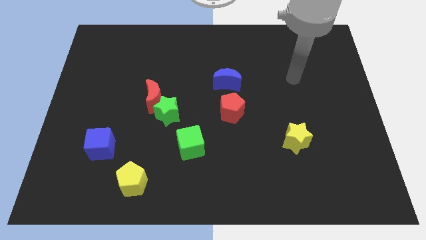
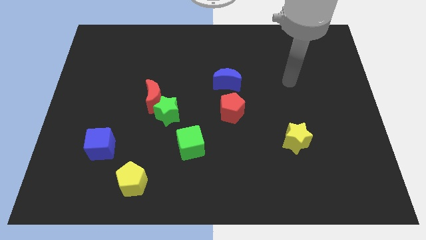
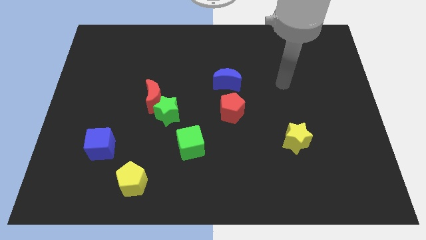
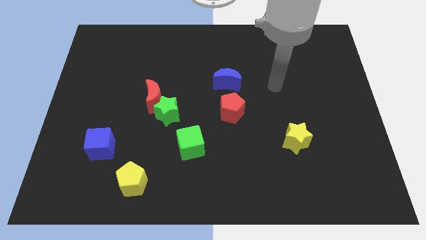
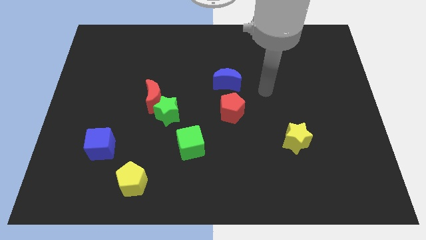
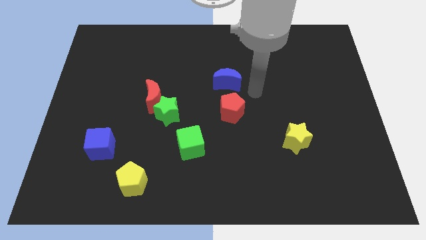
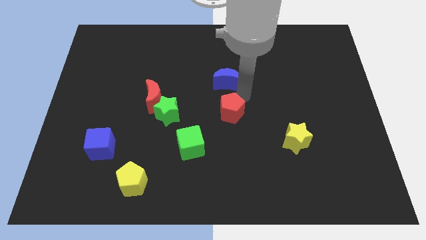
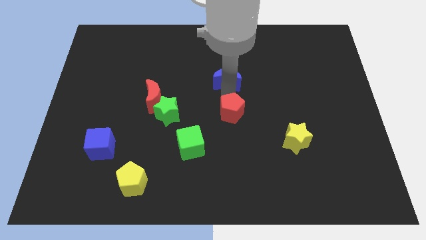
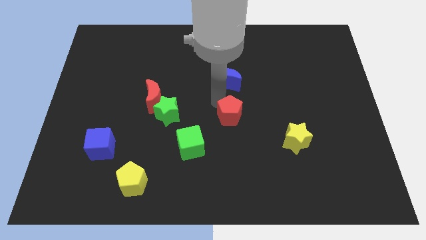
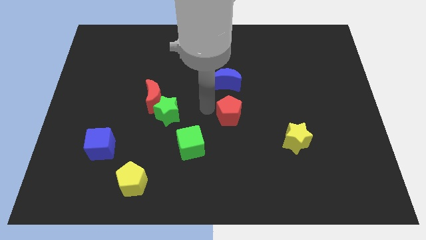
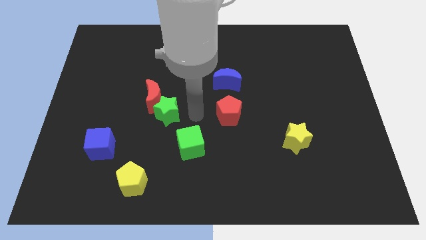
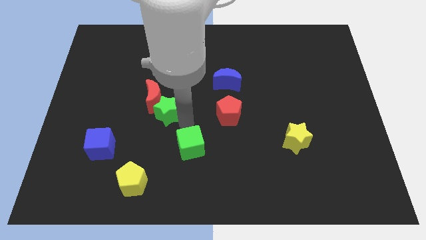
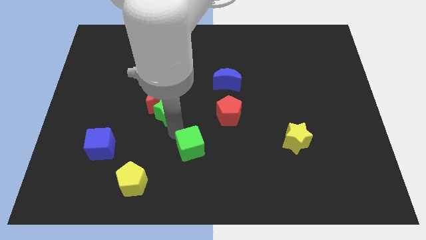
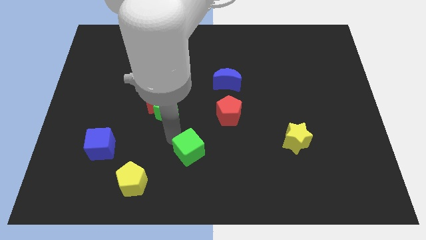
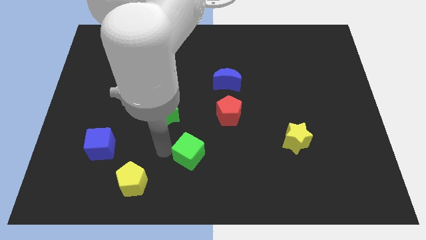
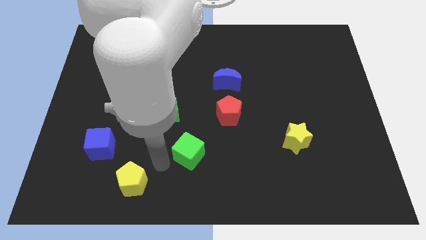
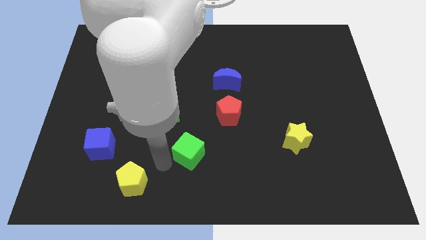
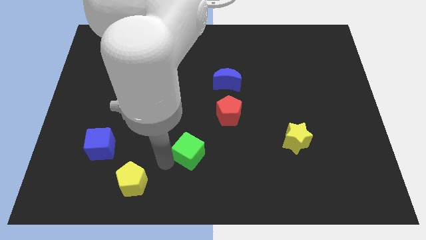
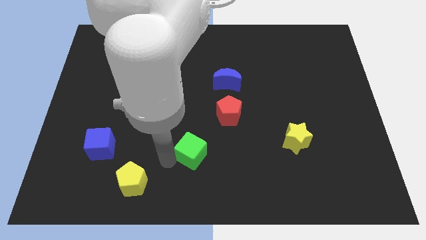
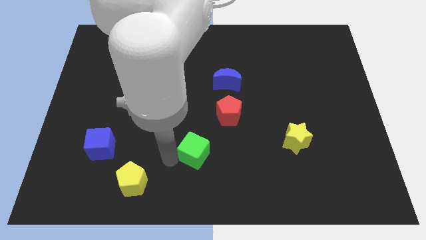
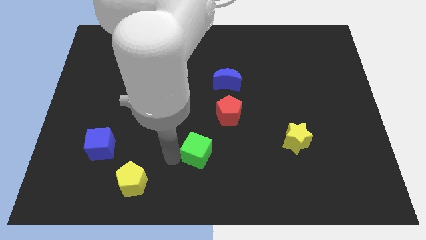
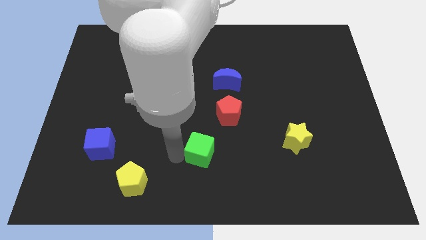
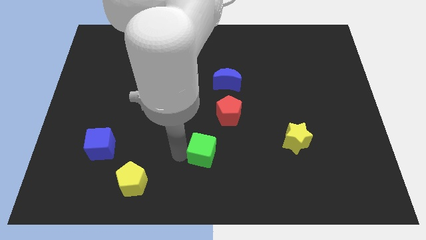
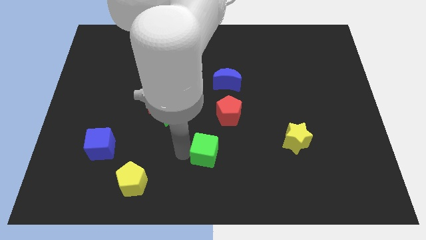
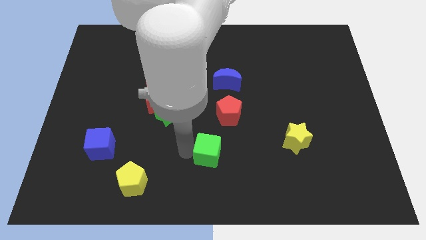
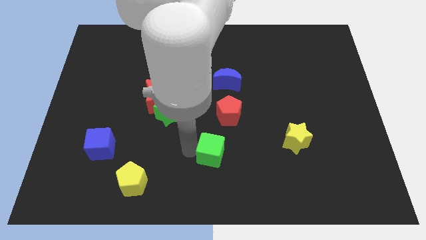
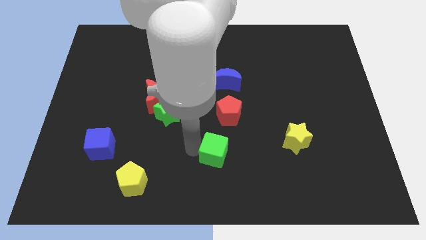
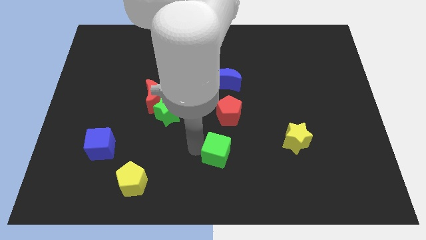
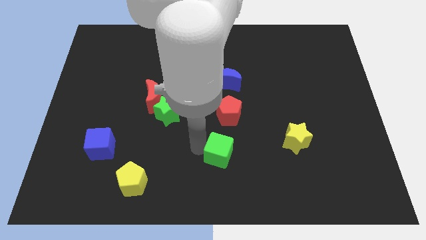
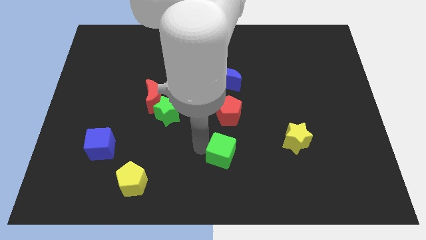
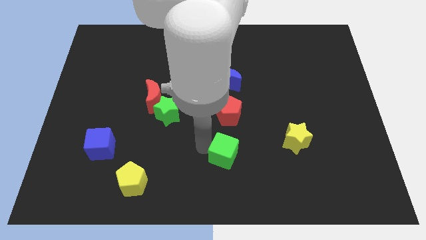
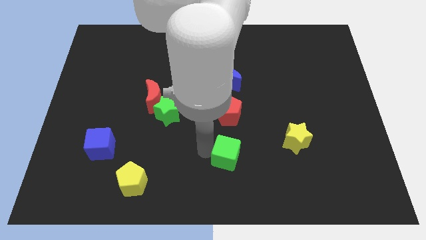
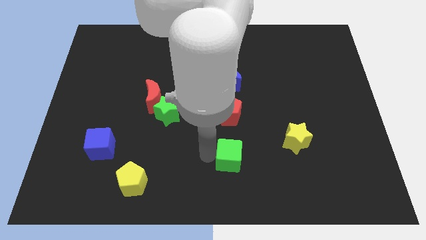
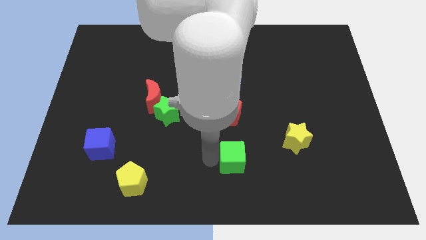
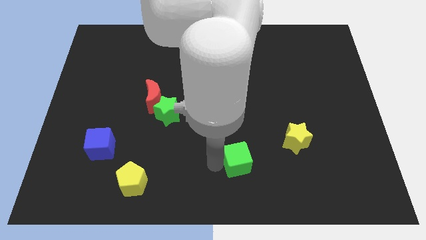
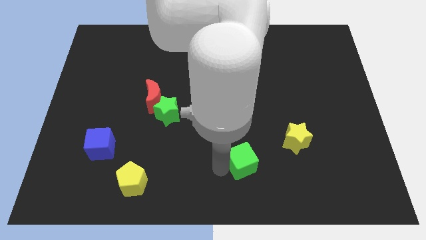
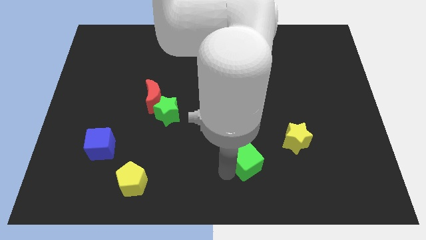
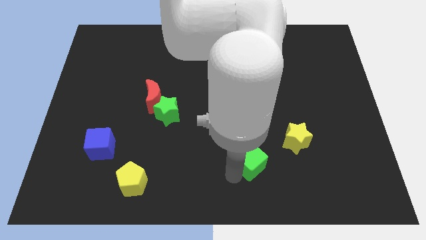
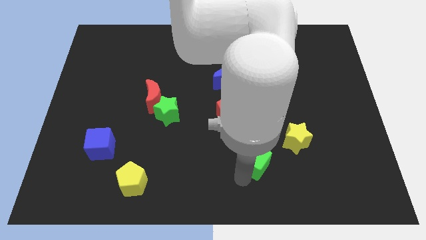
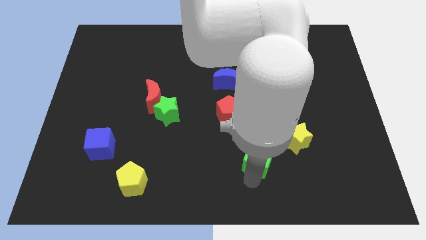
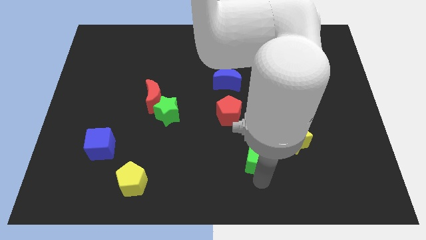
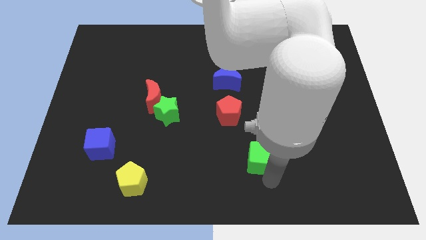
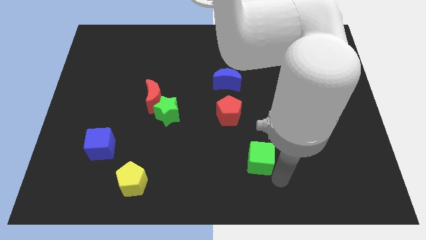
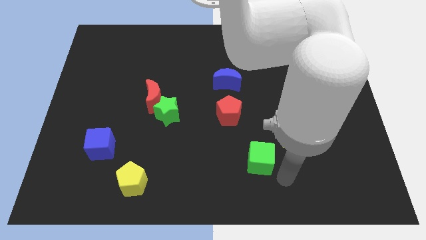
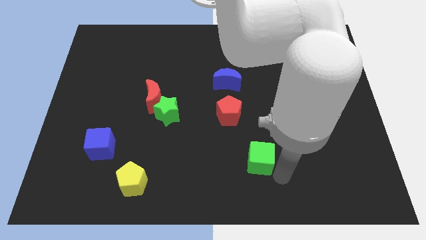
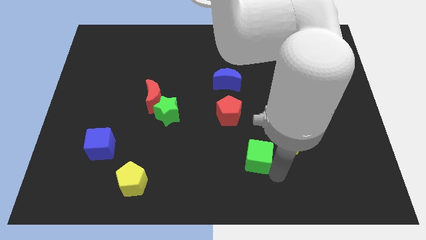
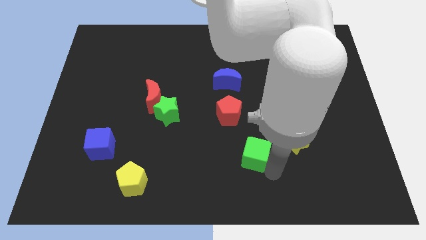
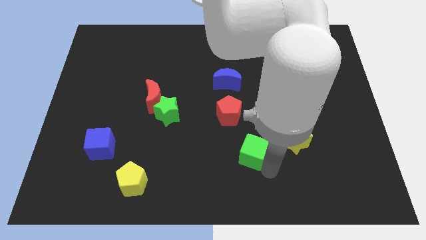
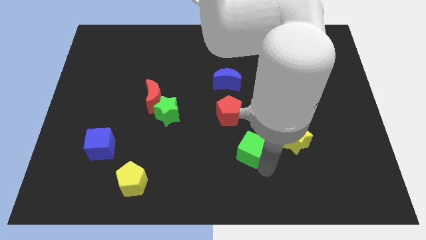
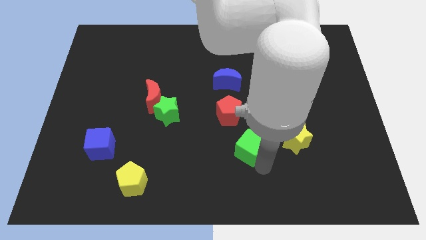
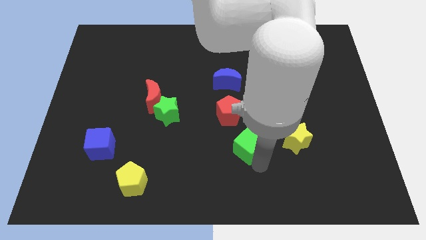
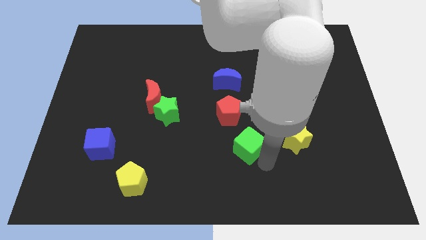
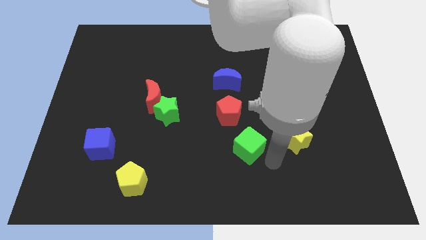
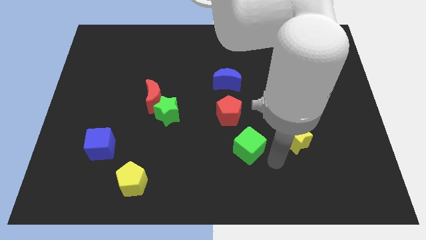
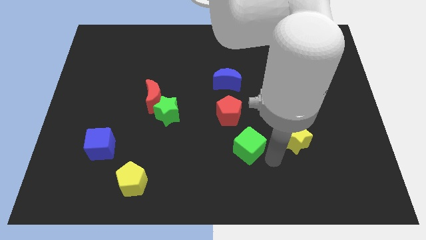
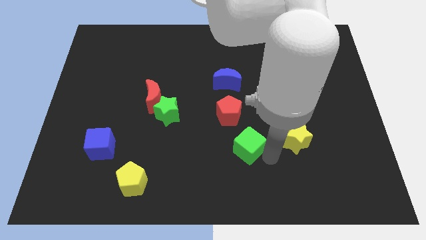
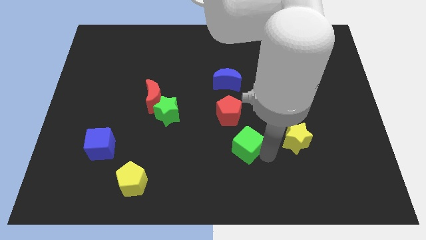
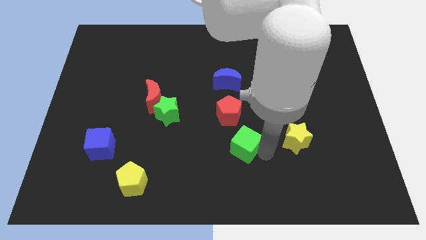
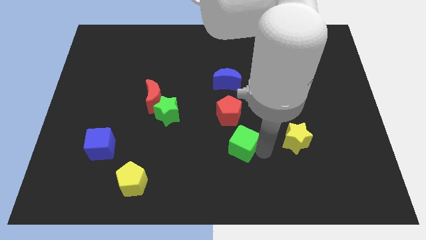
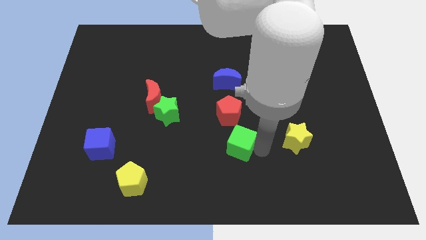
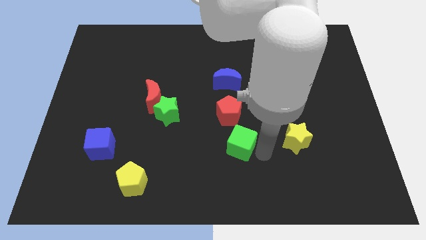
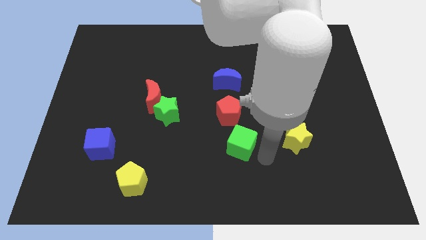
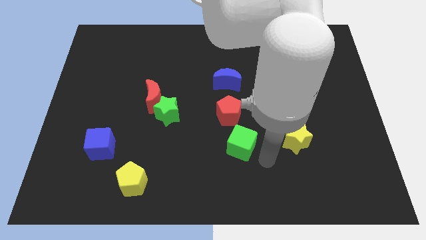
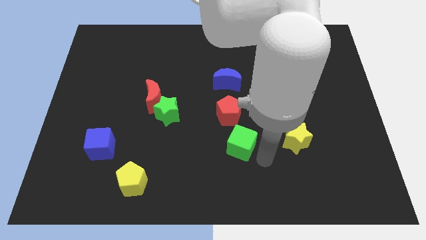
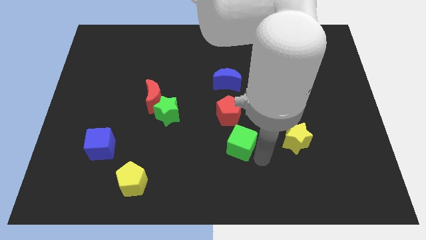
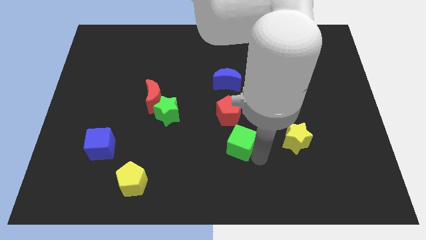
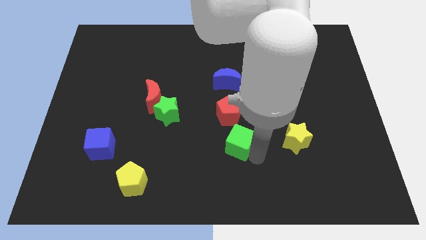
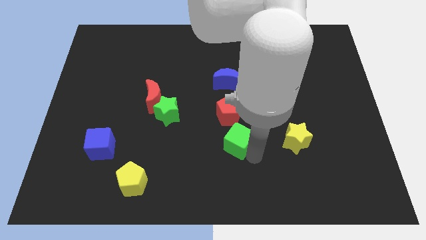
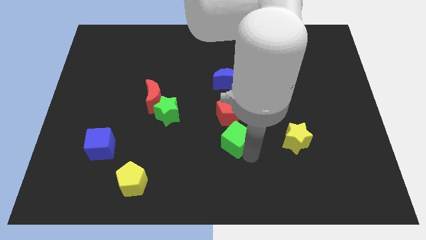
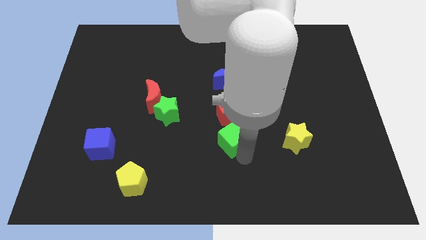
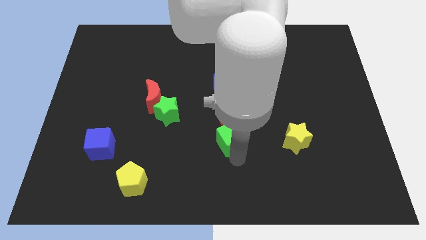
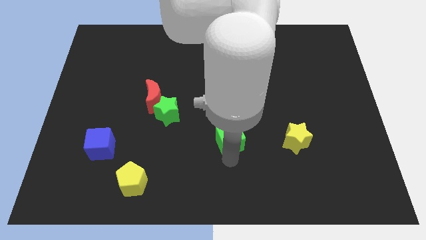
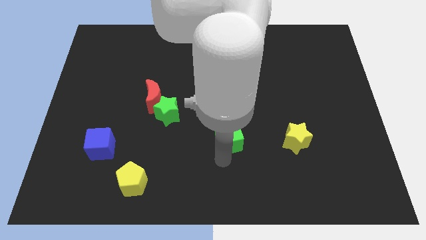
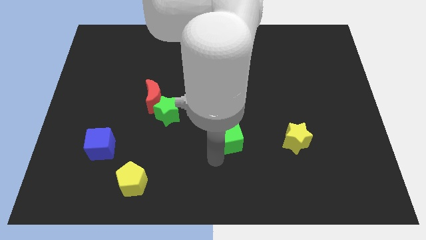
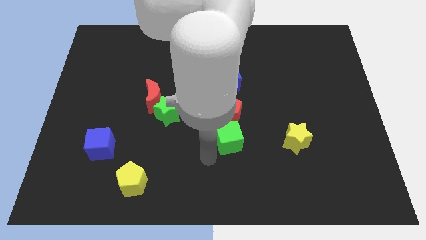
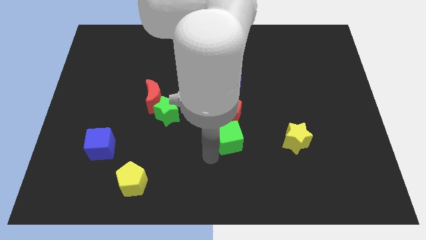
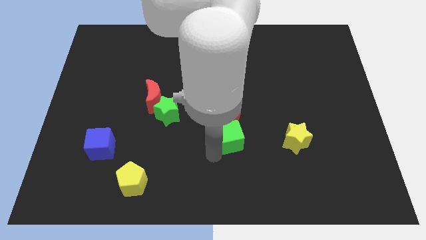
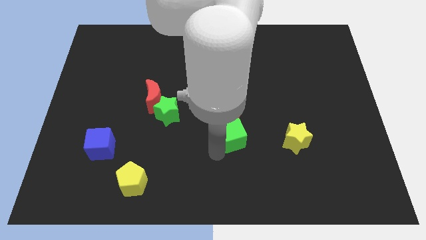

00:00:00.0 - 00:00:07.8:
slide the green cube a little bit diagonally upwards and right

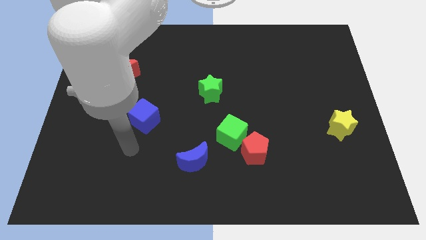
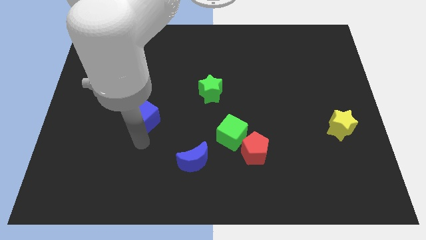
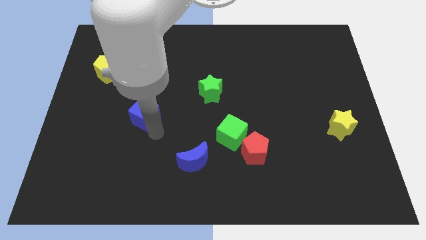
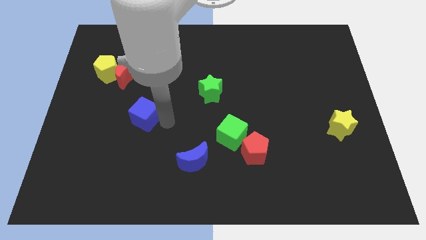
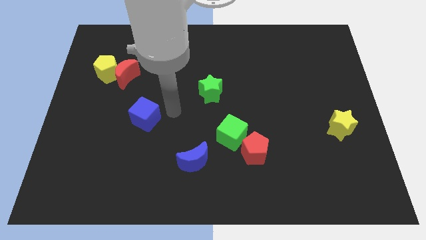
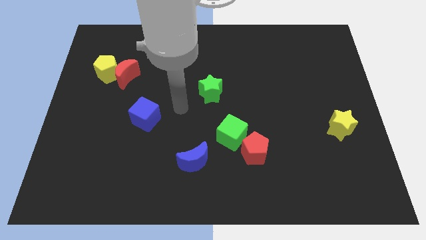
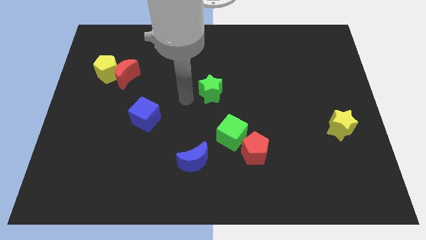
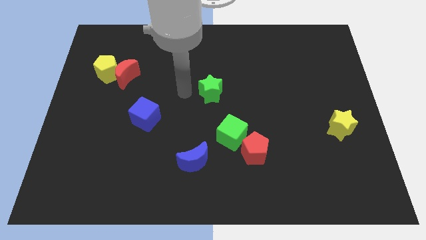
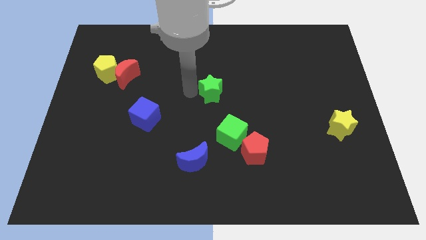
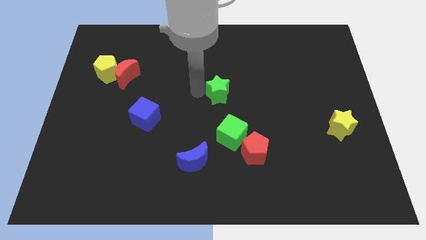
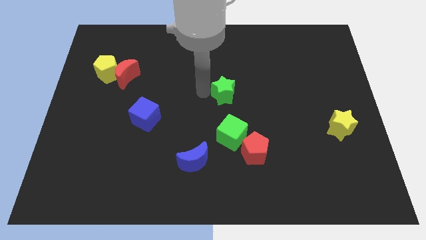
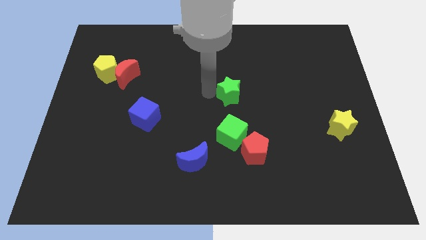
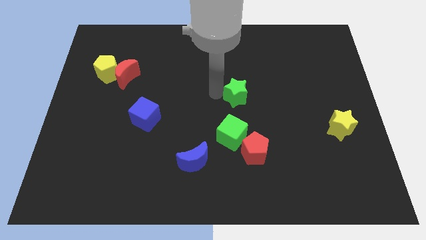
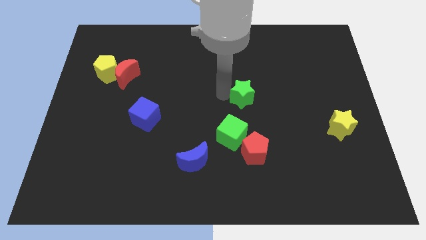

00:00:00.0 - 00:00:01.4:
push the green star a little bit right
